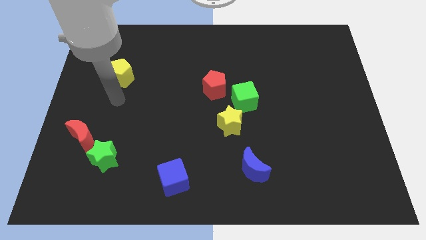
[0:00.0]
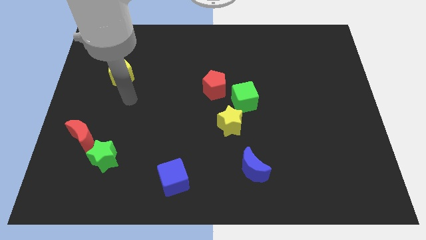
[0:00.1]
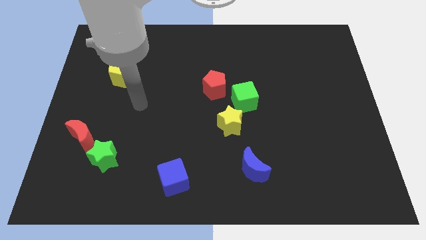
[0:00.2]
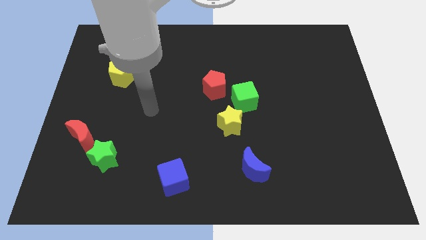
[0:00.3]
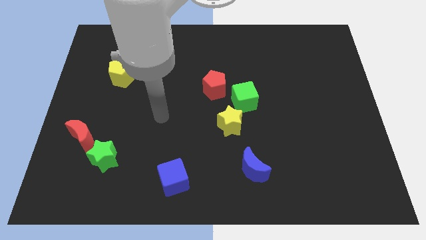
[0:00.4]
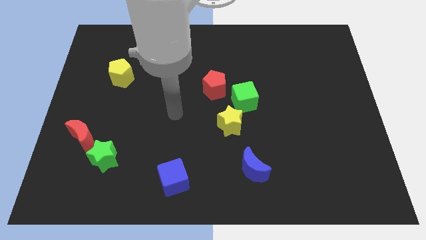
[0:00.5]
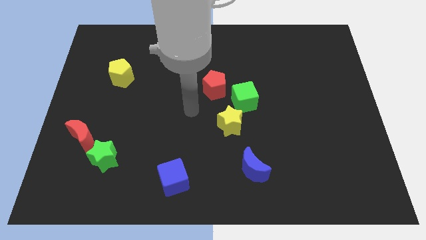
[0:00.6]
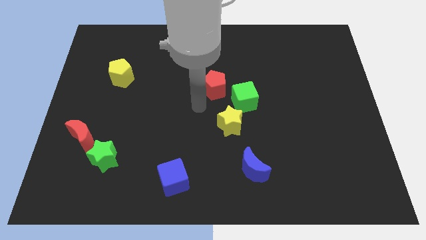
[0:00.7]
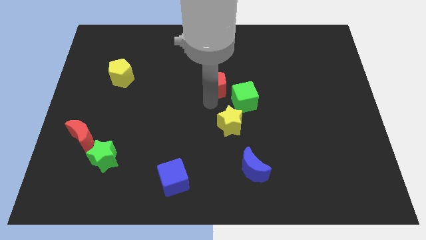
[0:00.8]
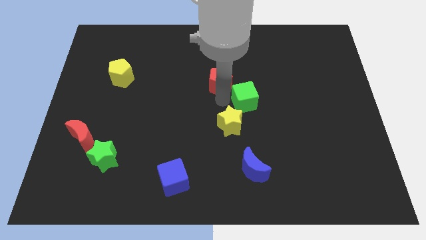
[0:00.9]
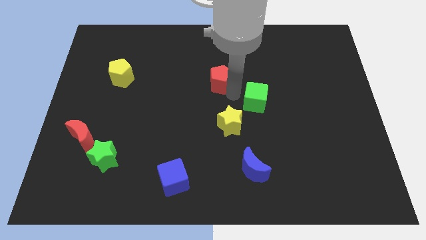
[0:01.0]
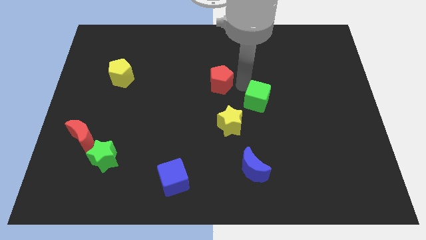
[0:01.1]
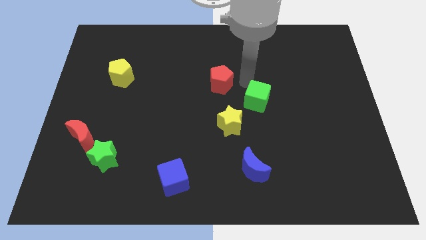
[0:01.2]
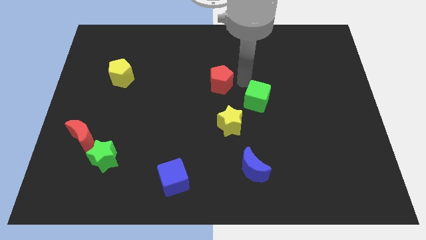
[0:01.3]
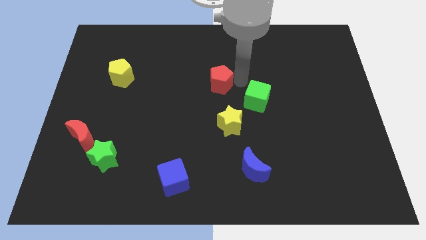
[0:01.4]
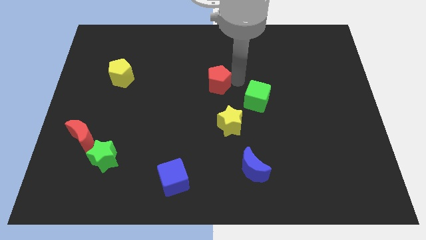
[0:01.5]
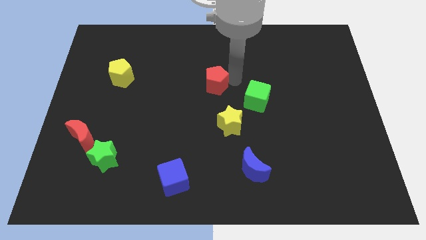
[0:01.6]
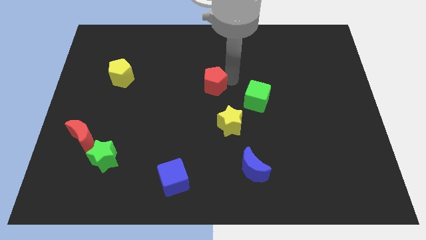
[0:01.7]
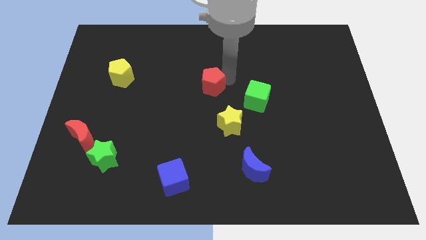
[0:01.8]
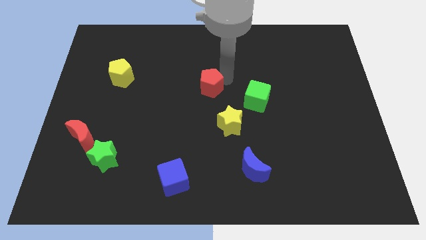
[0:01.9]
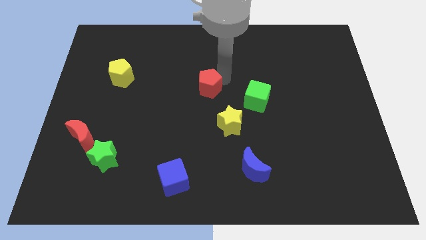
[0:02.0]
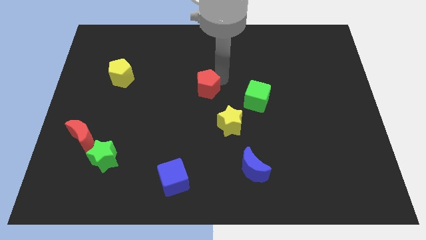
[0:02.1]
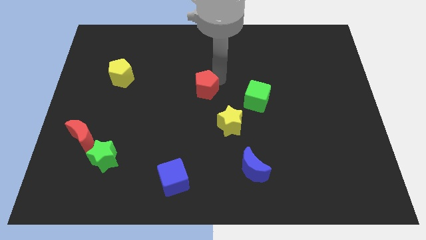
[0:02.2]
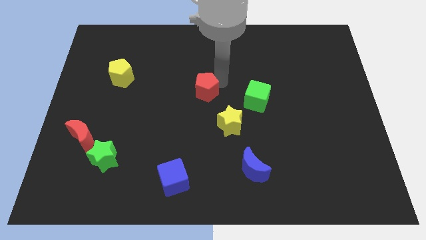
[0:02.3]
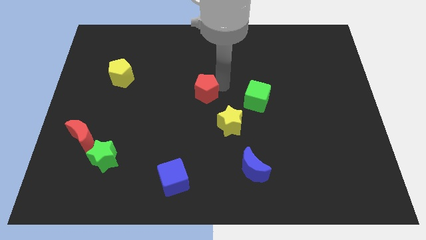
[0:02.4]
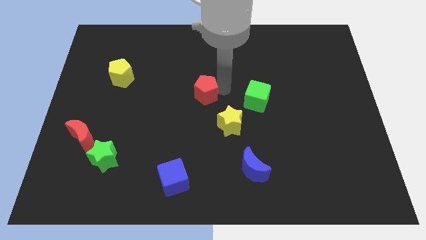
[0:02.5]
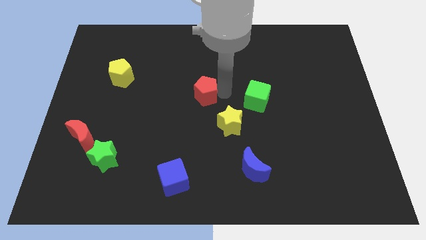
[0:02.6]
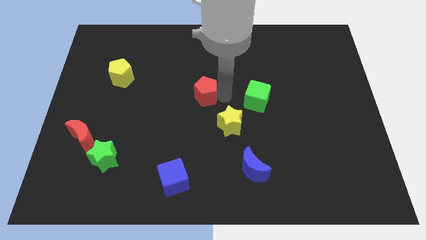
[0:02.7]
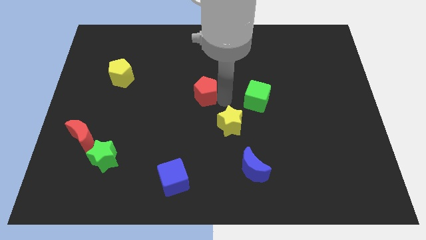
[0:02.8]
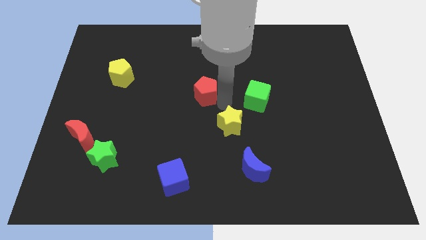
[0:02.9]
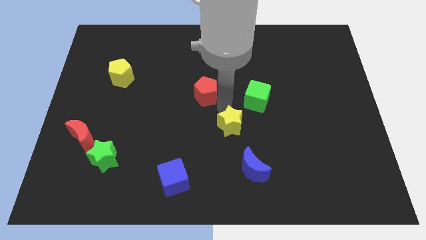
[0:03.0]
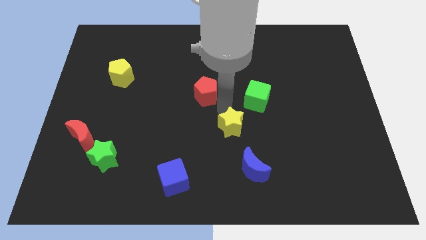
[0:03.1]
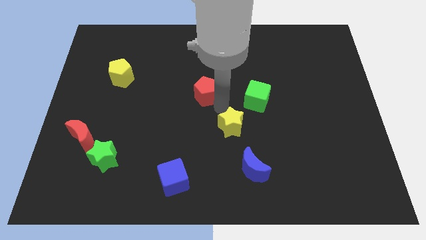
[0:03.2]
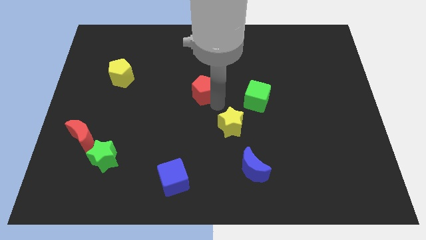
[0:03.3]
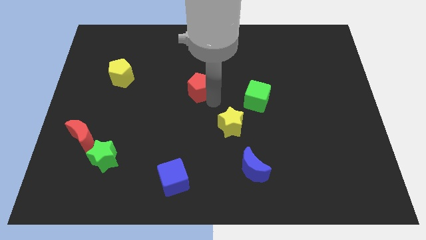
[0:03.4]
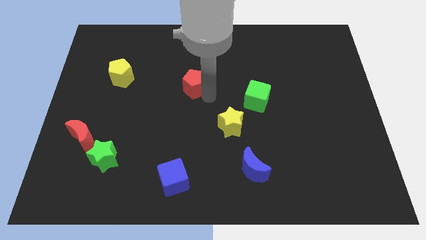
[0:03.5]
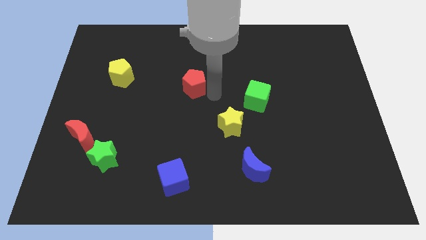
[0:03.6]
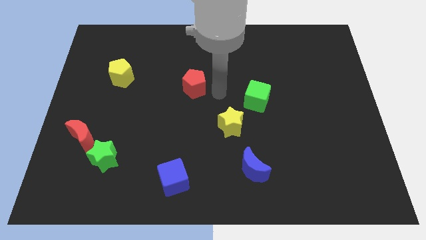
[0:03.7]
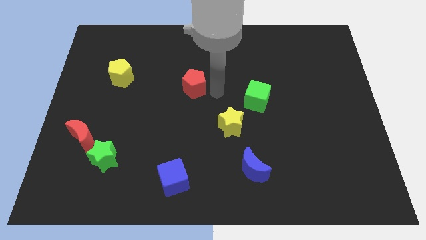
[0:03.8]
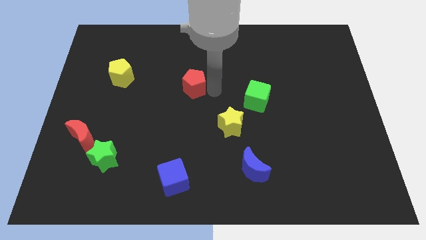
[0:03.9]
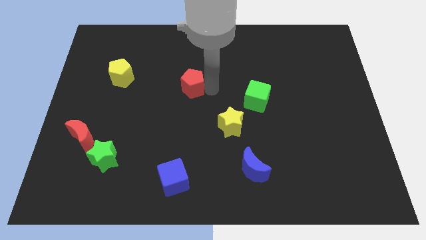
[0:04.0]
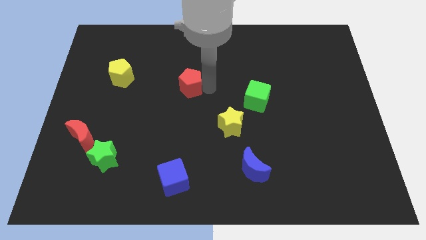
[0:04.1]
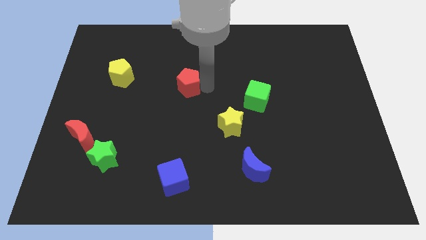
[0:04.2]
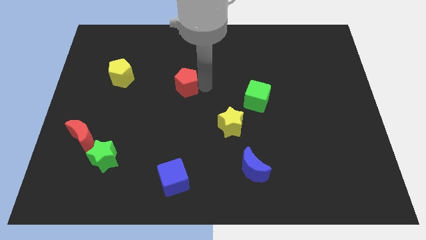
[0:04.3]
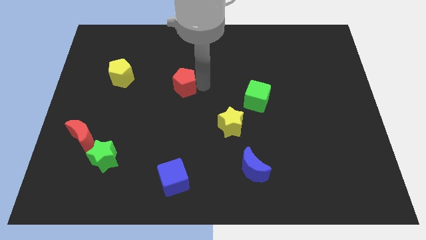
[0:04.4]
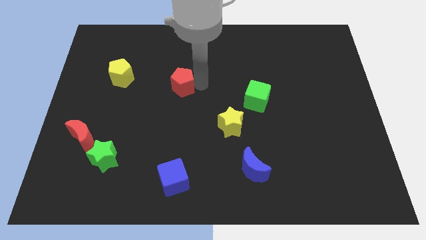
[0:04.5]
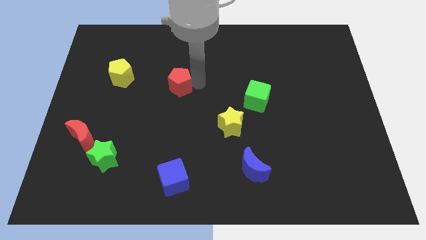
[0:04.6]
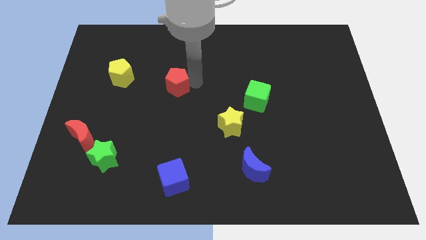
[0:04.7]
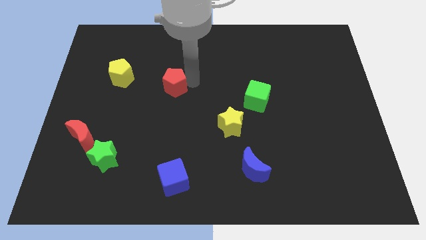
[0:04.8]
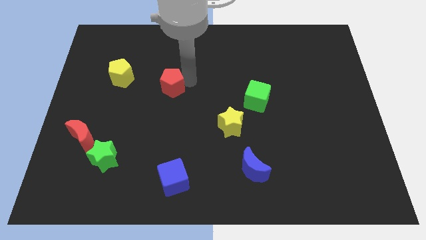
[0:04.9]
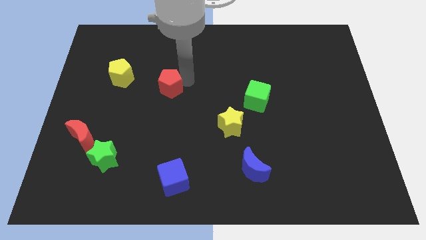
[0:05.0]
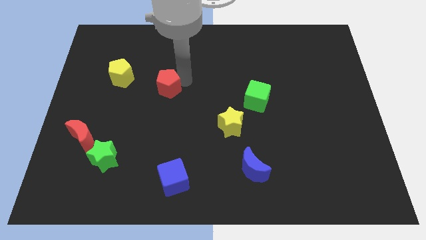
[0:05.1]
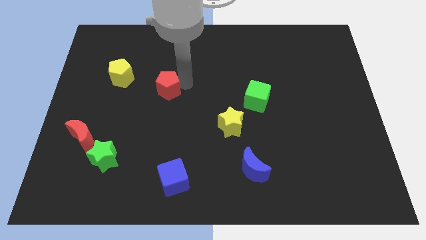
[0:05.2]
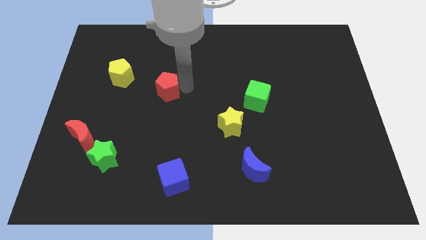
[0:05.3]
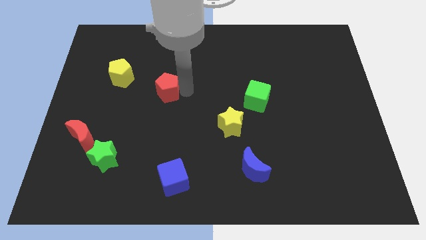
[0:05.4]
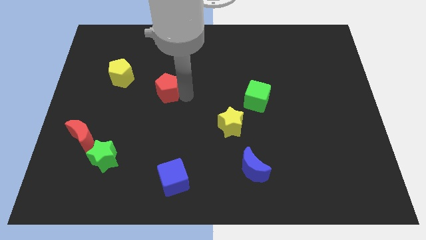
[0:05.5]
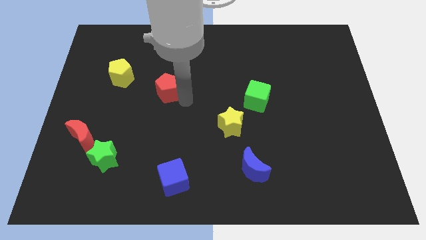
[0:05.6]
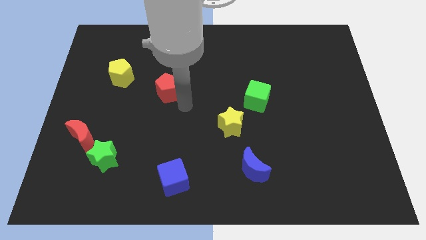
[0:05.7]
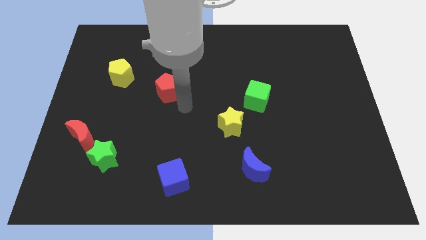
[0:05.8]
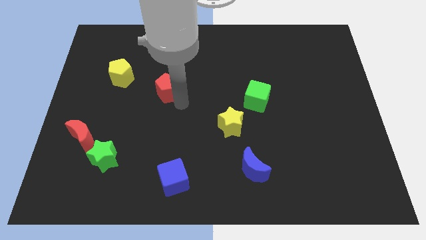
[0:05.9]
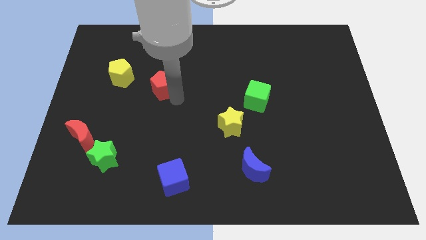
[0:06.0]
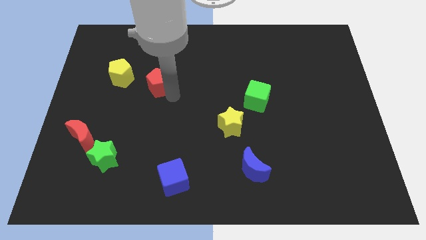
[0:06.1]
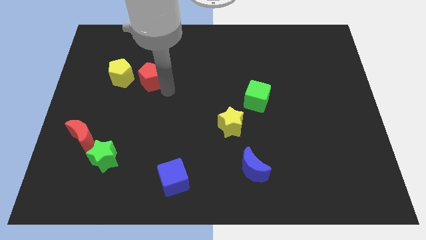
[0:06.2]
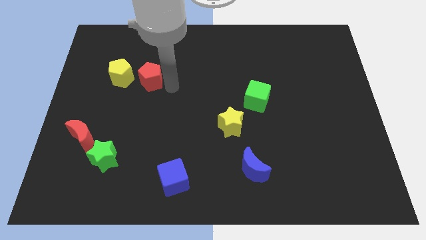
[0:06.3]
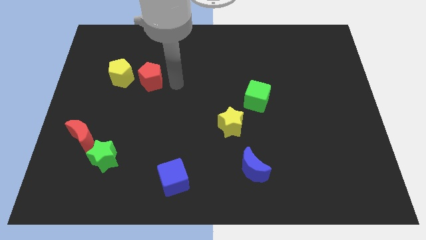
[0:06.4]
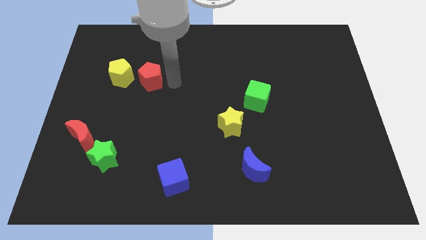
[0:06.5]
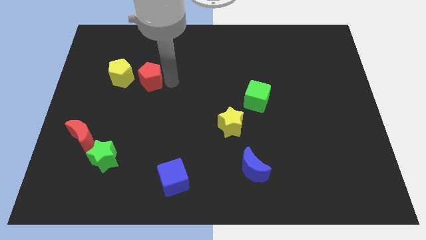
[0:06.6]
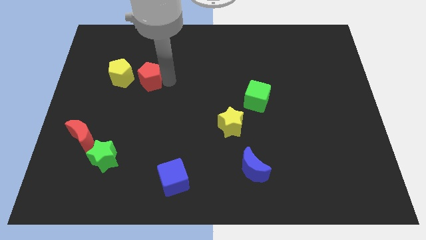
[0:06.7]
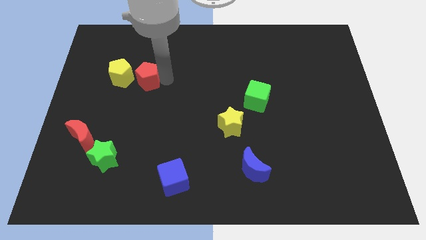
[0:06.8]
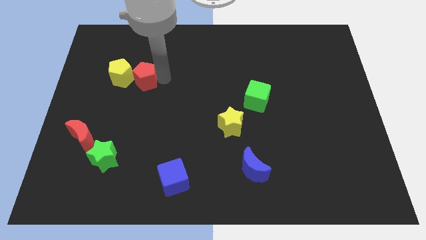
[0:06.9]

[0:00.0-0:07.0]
put the red pentagon close to the yellow pentagon

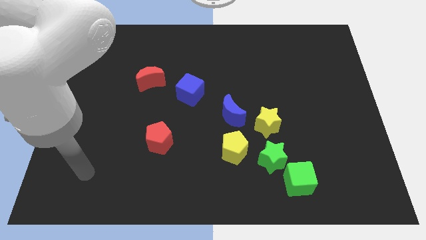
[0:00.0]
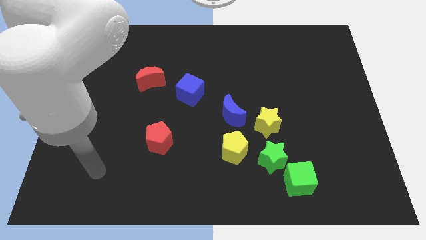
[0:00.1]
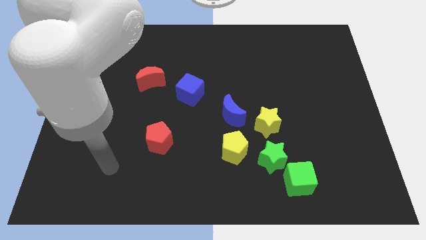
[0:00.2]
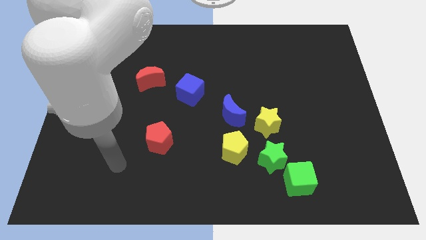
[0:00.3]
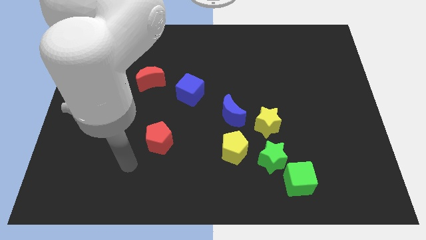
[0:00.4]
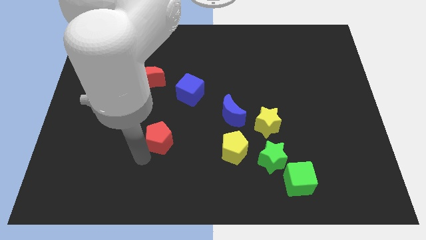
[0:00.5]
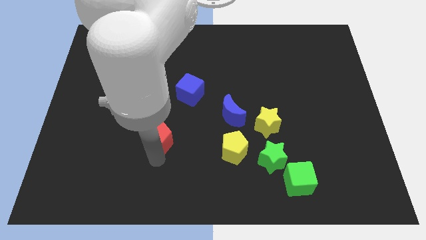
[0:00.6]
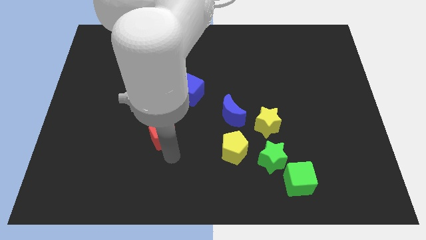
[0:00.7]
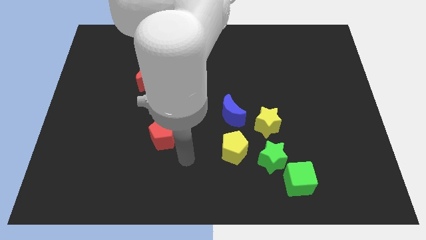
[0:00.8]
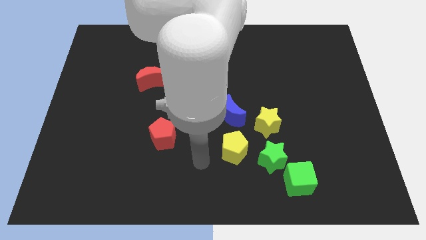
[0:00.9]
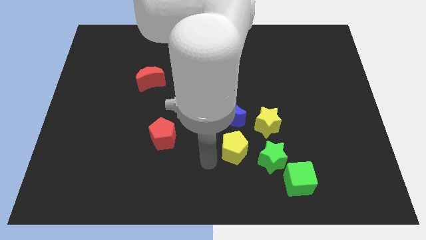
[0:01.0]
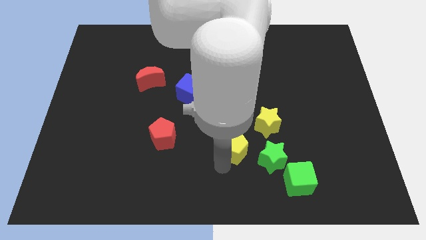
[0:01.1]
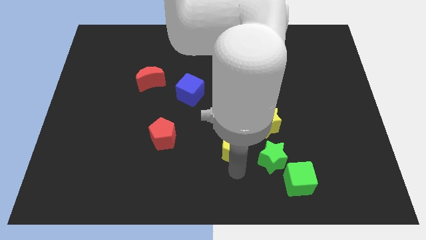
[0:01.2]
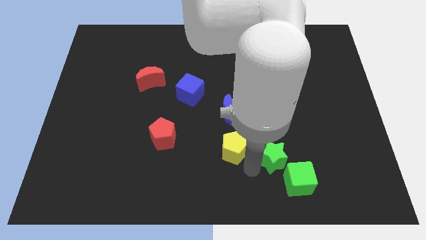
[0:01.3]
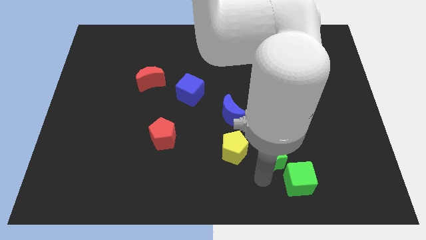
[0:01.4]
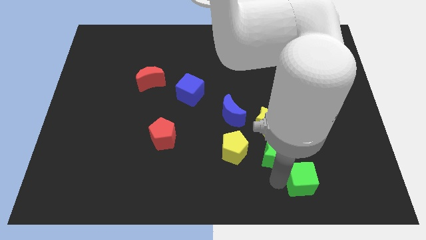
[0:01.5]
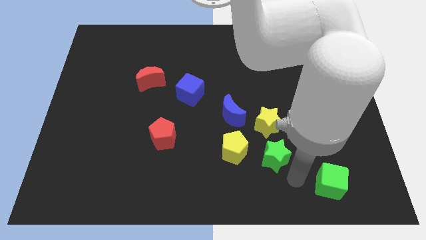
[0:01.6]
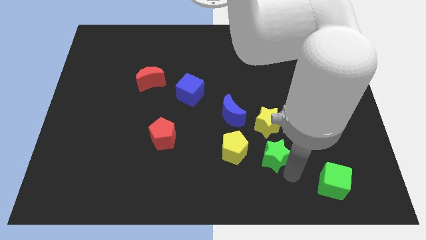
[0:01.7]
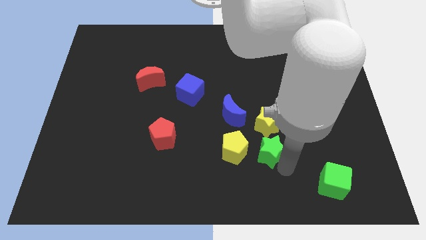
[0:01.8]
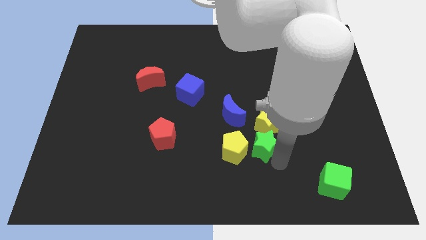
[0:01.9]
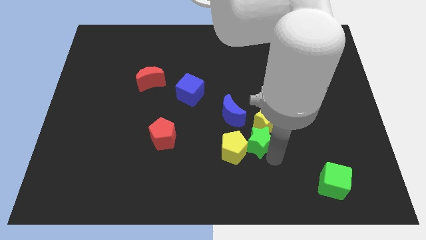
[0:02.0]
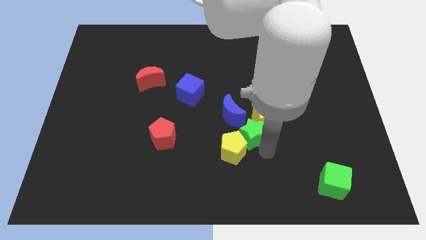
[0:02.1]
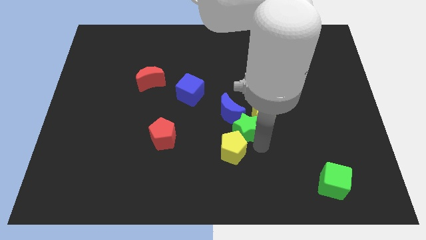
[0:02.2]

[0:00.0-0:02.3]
put the green star to the blue moon
